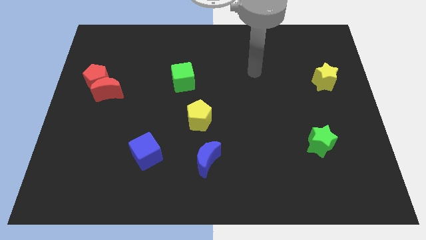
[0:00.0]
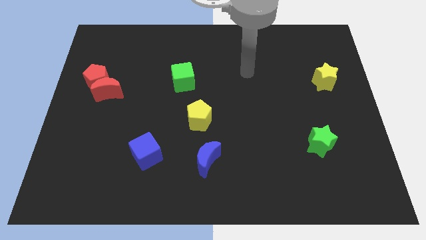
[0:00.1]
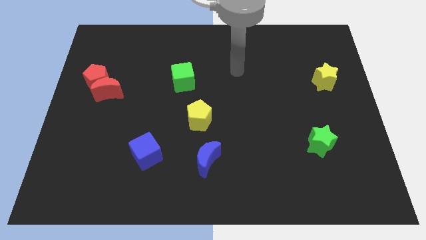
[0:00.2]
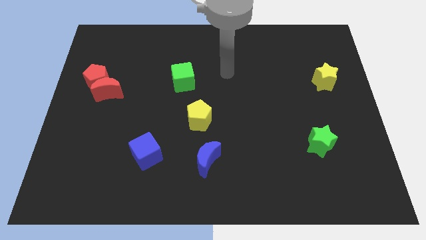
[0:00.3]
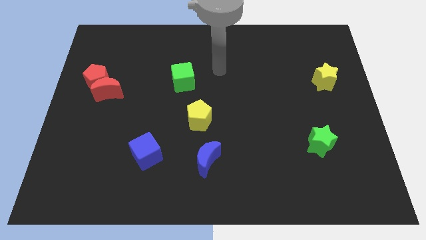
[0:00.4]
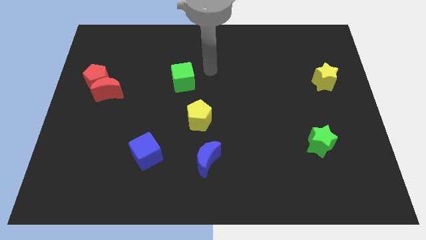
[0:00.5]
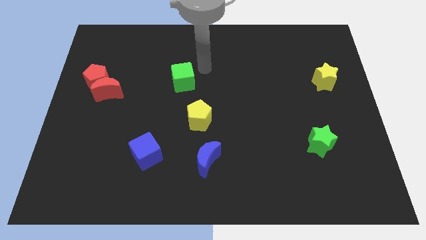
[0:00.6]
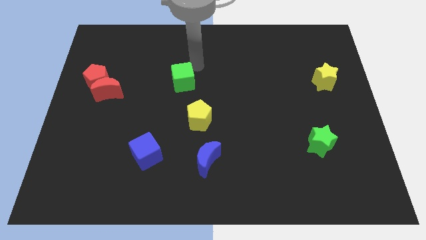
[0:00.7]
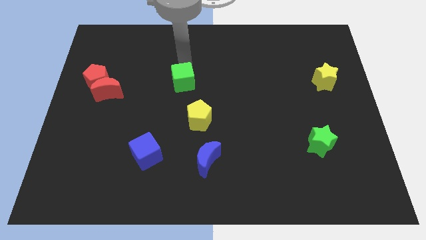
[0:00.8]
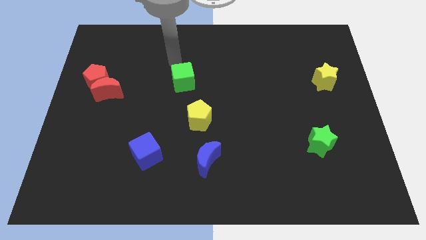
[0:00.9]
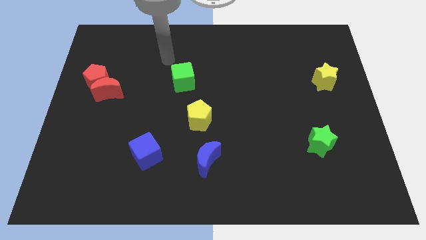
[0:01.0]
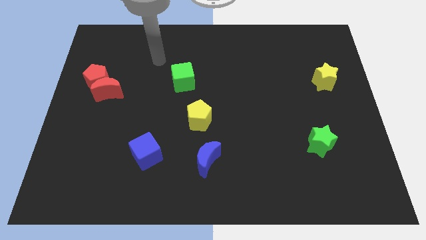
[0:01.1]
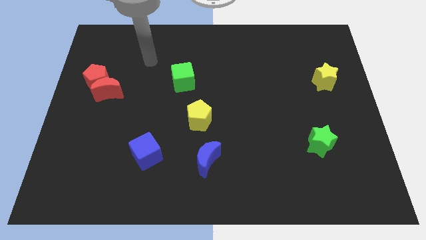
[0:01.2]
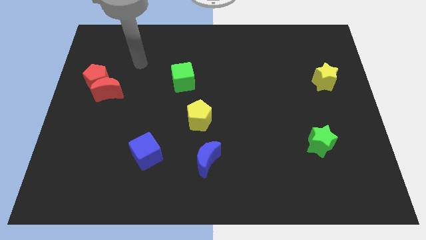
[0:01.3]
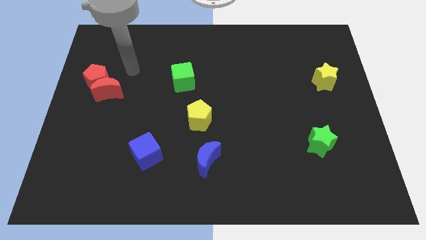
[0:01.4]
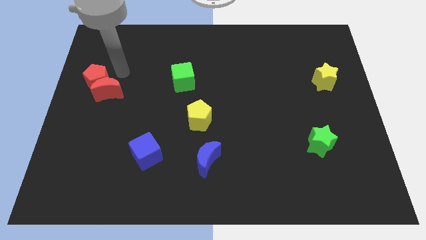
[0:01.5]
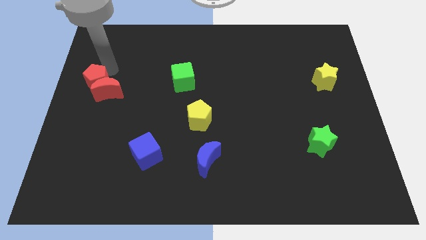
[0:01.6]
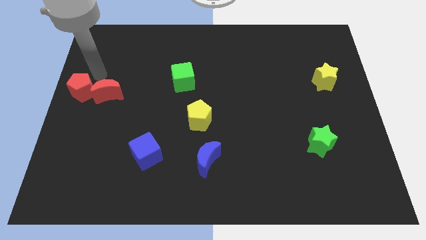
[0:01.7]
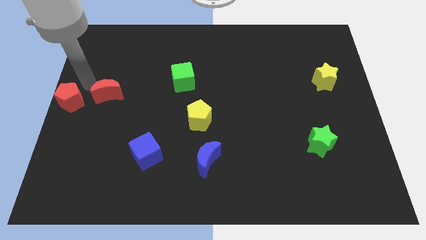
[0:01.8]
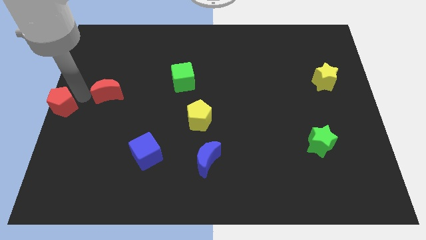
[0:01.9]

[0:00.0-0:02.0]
move the red moon away from the red pentagon

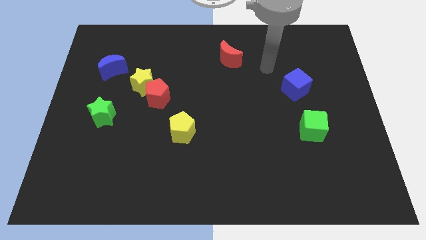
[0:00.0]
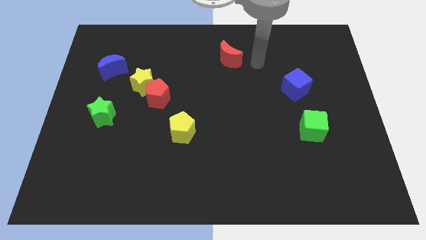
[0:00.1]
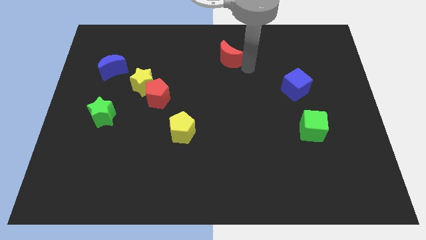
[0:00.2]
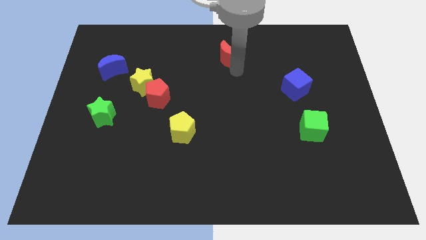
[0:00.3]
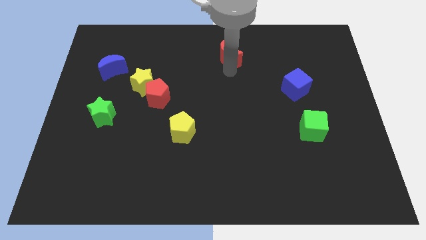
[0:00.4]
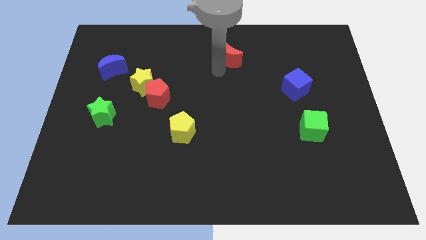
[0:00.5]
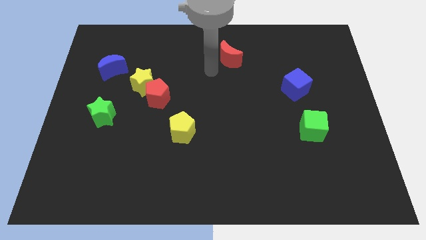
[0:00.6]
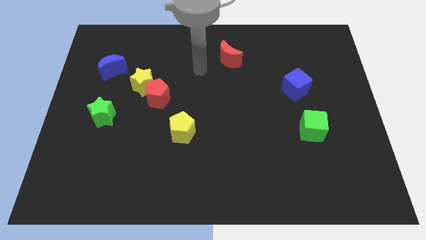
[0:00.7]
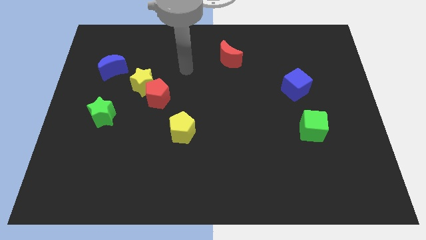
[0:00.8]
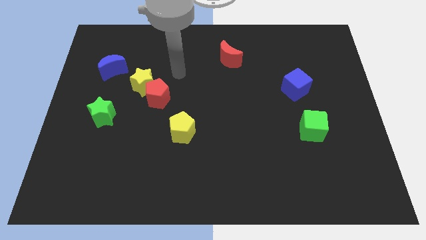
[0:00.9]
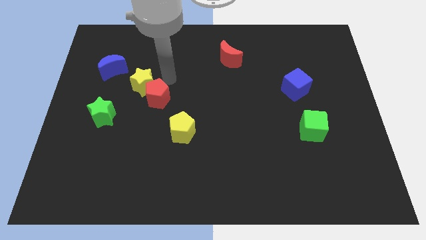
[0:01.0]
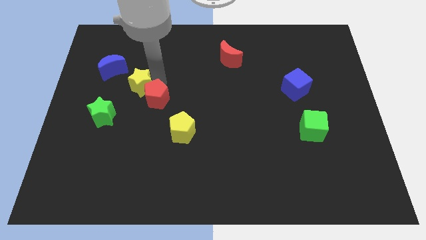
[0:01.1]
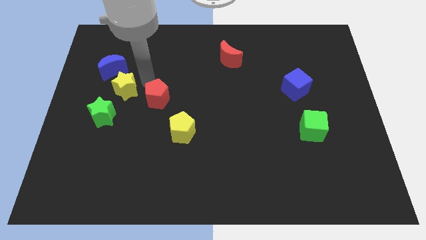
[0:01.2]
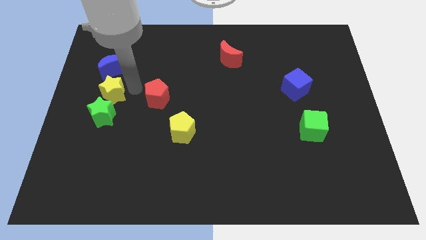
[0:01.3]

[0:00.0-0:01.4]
move the red pentagon away from the yellow star

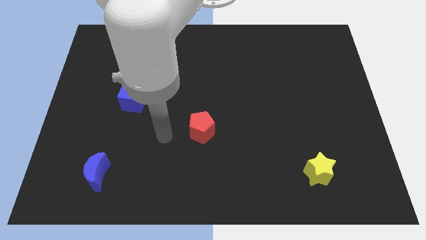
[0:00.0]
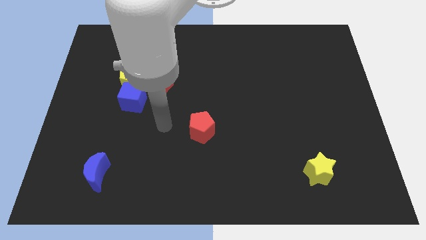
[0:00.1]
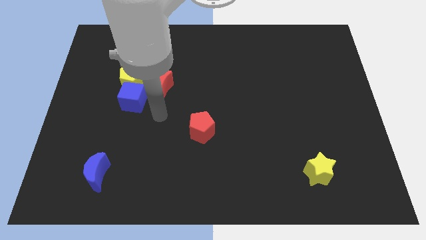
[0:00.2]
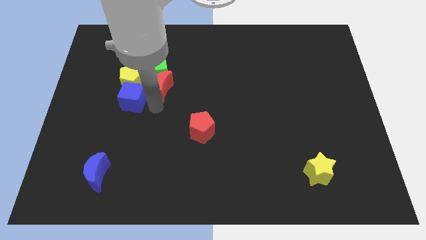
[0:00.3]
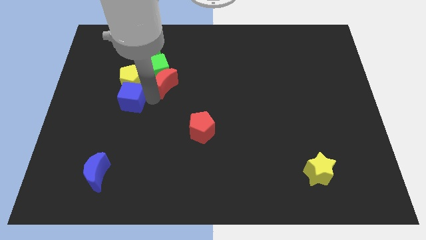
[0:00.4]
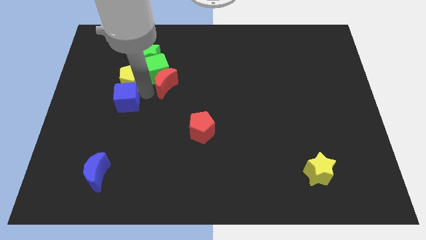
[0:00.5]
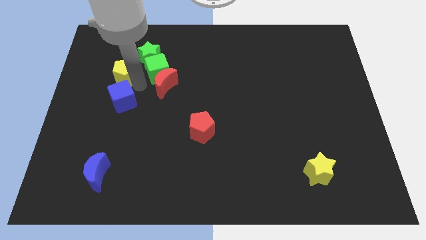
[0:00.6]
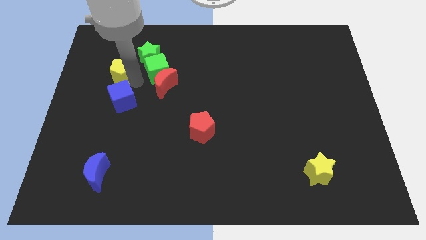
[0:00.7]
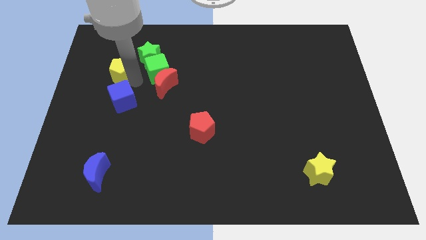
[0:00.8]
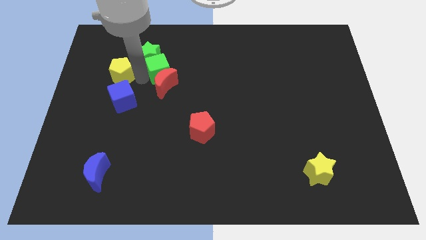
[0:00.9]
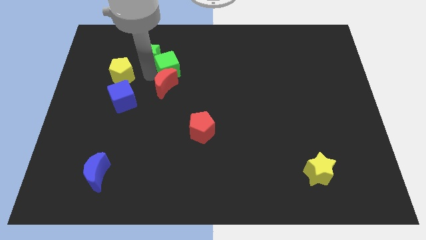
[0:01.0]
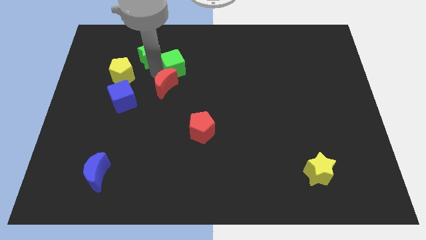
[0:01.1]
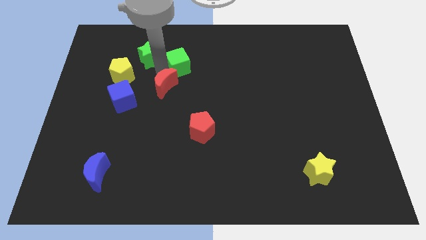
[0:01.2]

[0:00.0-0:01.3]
pull the green cube apart from the group

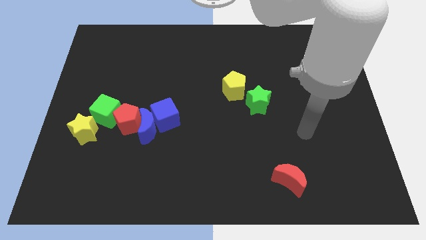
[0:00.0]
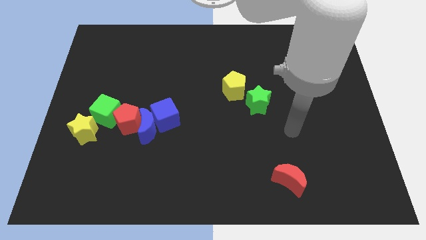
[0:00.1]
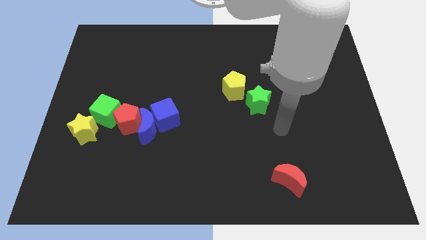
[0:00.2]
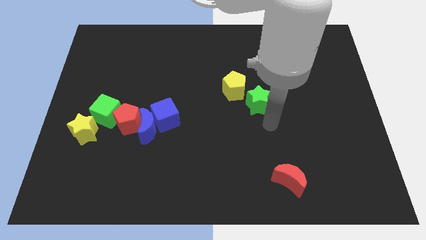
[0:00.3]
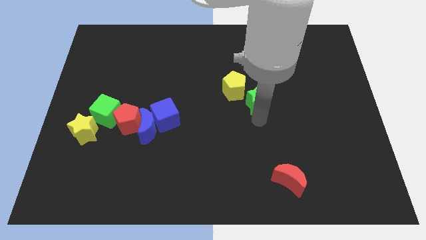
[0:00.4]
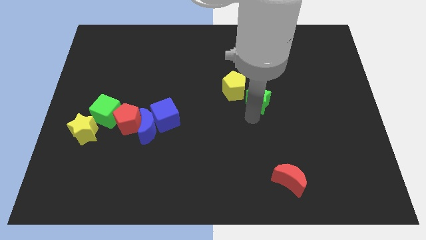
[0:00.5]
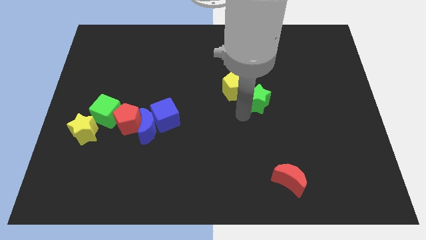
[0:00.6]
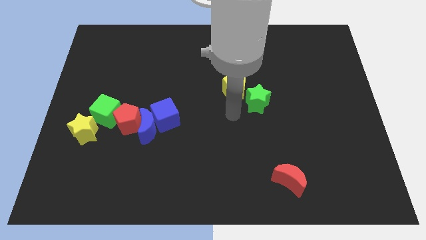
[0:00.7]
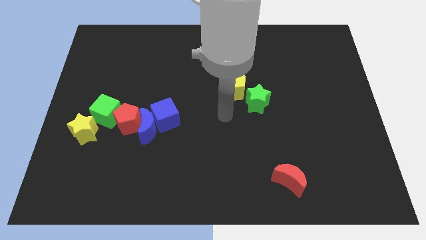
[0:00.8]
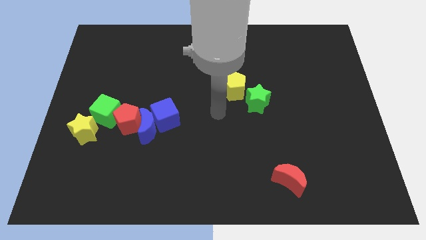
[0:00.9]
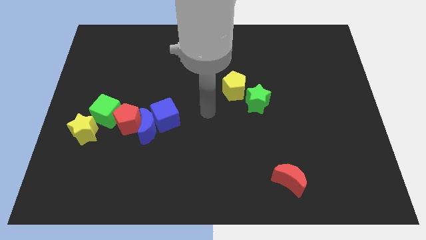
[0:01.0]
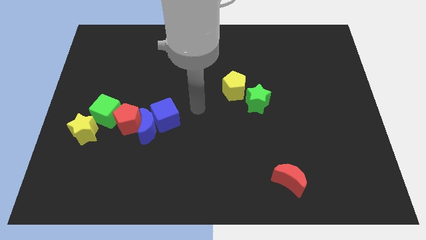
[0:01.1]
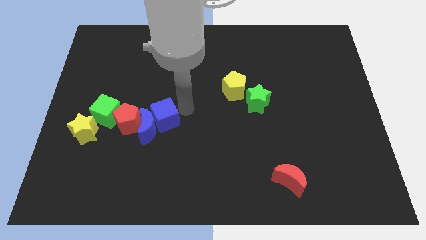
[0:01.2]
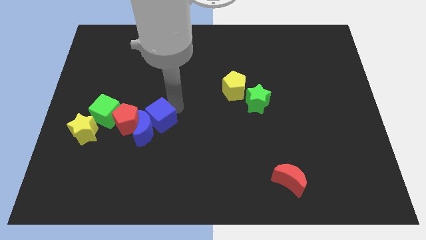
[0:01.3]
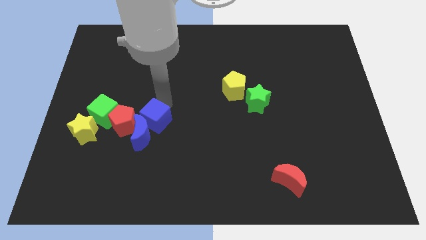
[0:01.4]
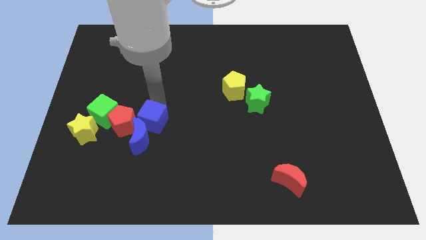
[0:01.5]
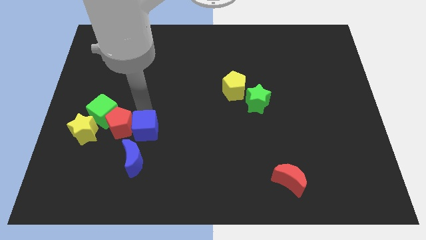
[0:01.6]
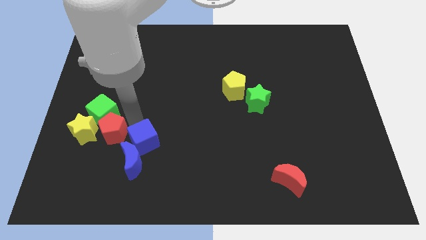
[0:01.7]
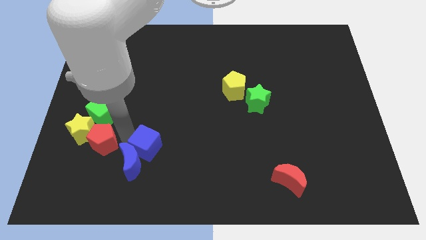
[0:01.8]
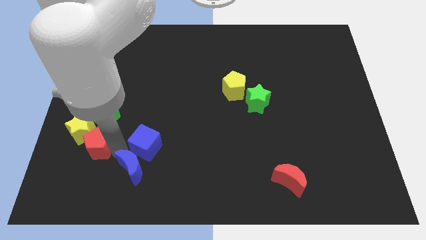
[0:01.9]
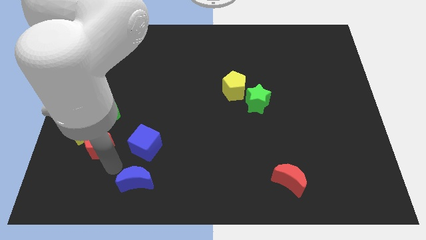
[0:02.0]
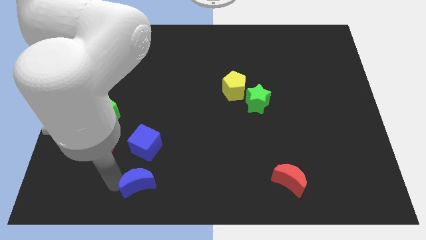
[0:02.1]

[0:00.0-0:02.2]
move the blue moon away from the blue cube and red pentagon

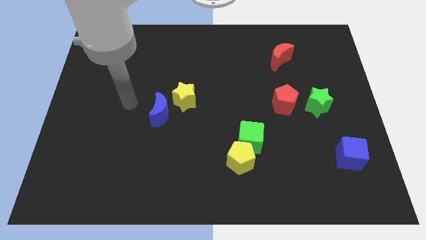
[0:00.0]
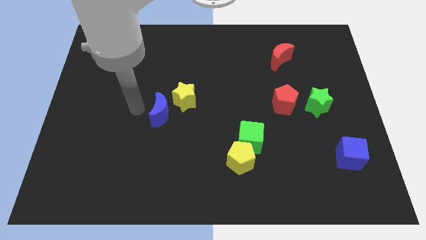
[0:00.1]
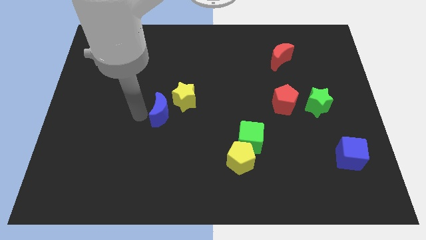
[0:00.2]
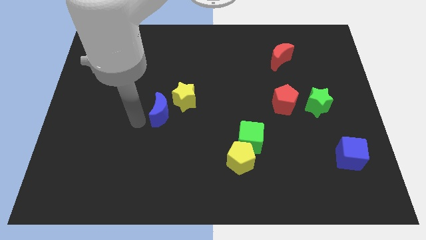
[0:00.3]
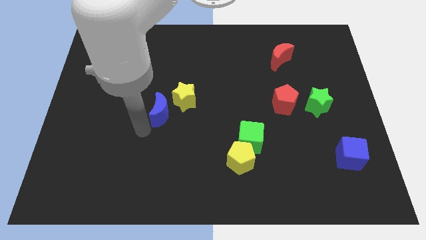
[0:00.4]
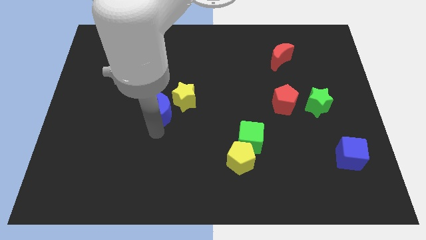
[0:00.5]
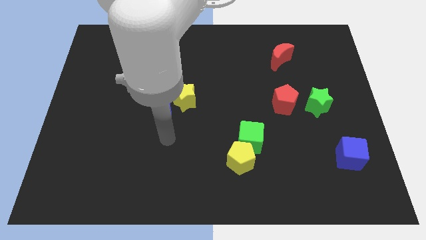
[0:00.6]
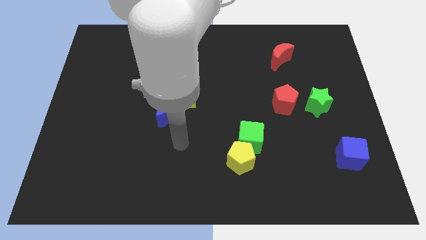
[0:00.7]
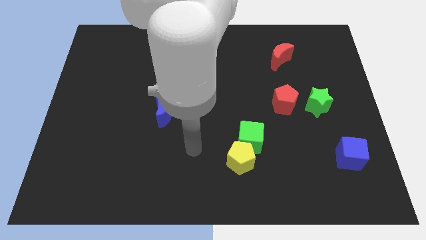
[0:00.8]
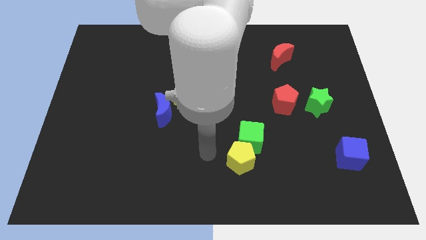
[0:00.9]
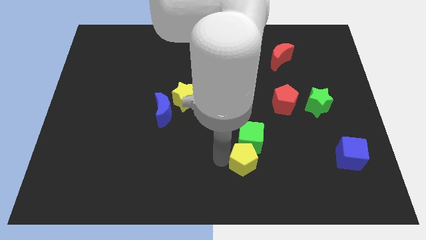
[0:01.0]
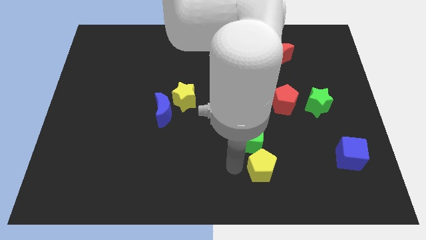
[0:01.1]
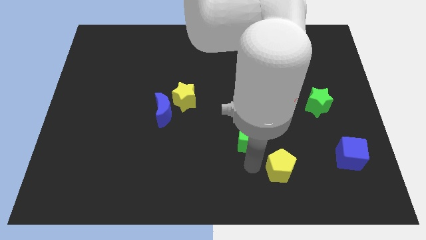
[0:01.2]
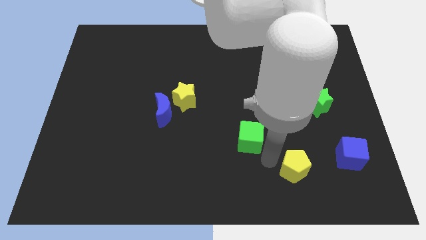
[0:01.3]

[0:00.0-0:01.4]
move the green cube away from the yellow pentagon

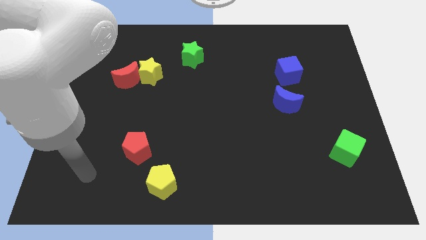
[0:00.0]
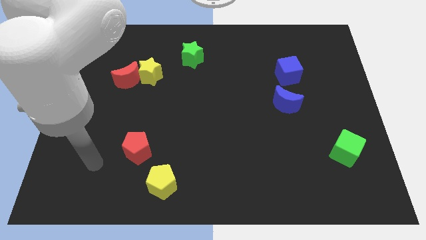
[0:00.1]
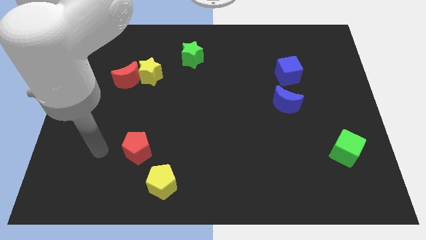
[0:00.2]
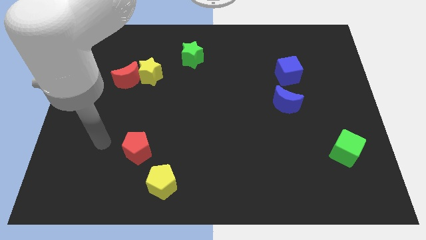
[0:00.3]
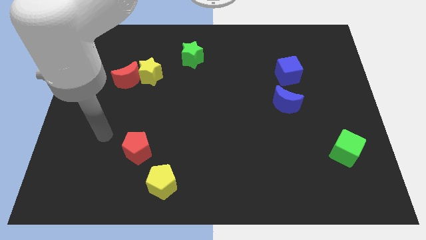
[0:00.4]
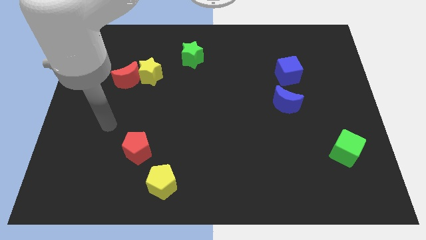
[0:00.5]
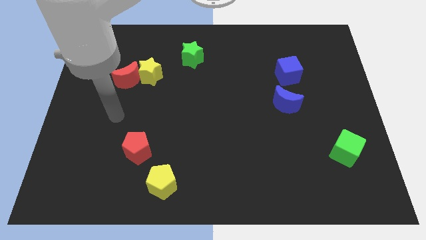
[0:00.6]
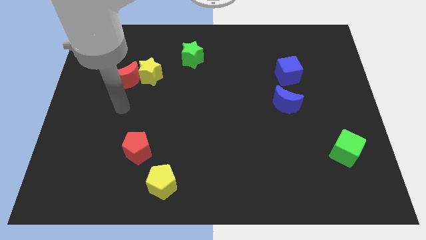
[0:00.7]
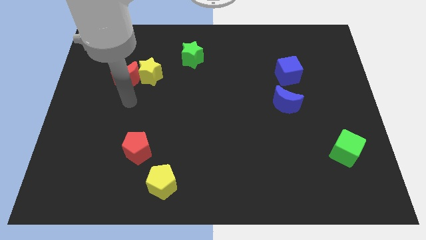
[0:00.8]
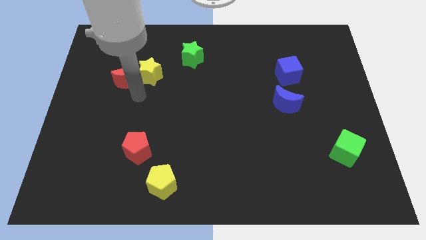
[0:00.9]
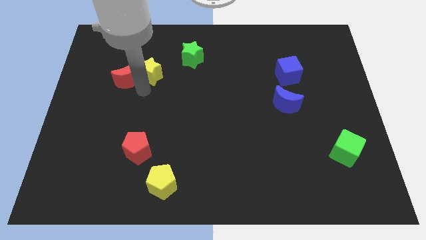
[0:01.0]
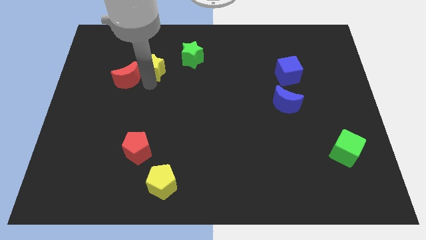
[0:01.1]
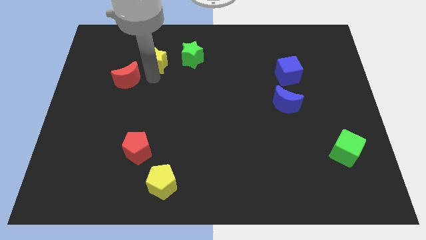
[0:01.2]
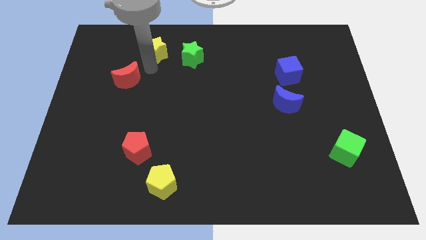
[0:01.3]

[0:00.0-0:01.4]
move the red moon away from the yellow star
